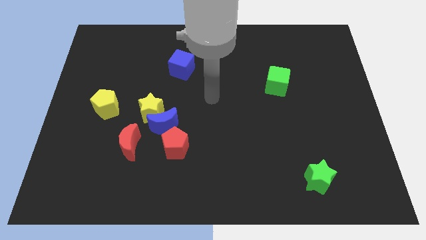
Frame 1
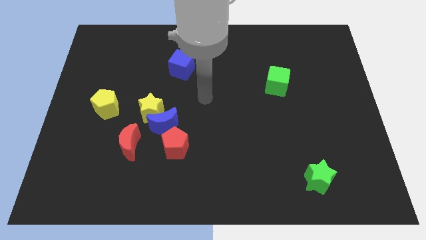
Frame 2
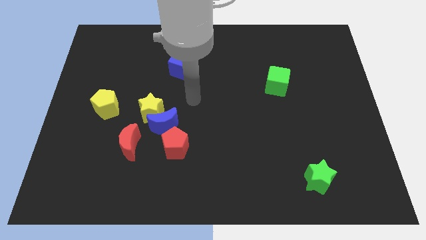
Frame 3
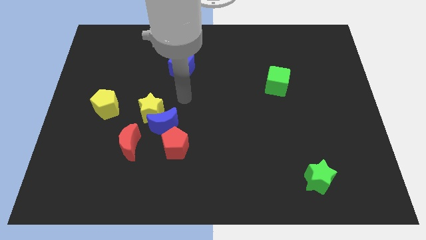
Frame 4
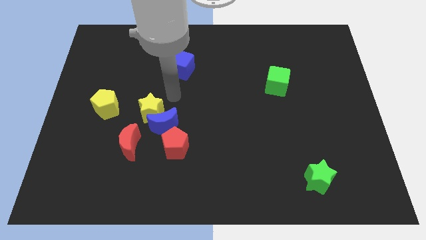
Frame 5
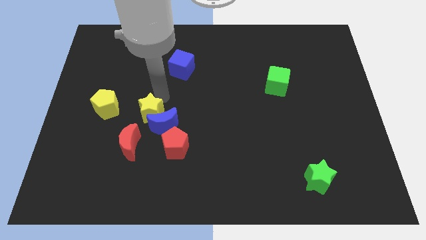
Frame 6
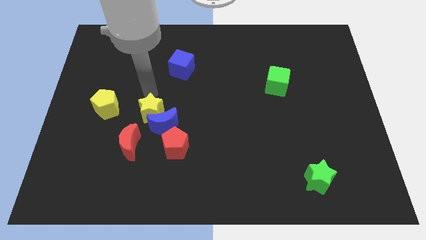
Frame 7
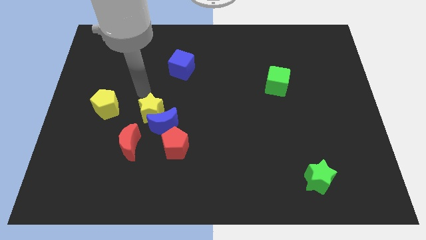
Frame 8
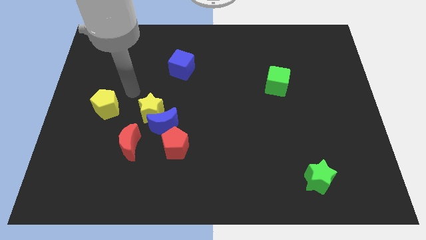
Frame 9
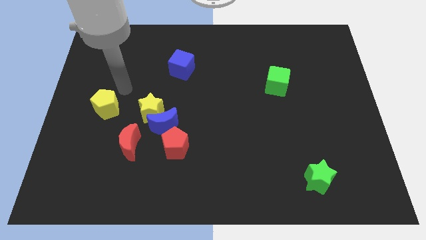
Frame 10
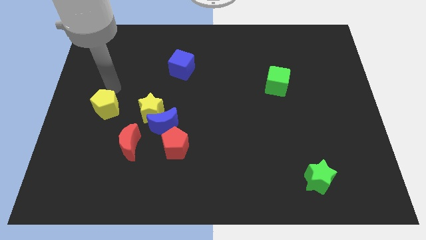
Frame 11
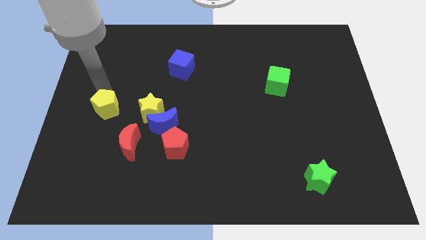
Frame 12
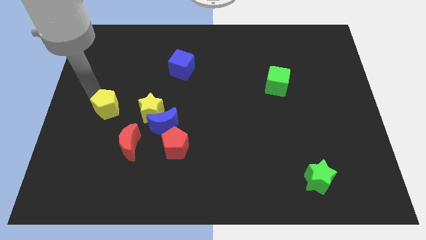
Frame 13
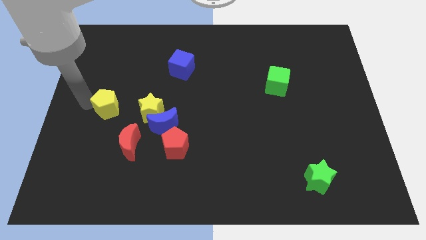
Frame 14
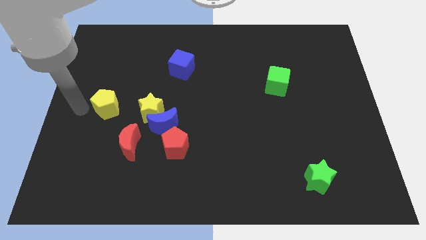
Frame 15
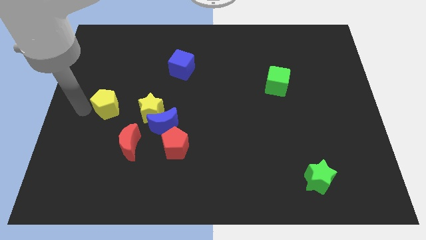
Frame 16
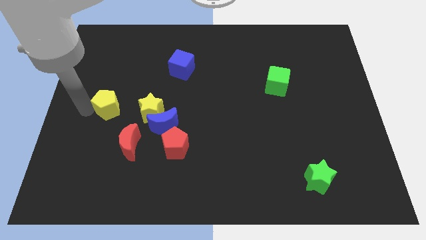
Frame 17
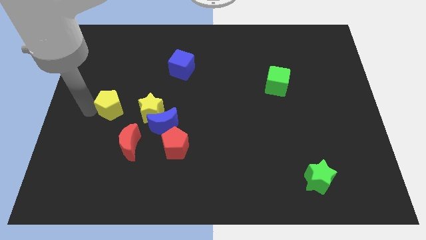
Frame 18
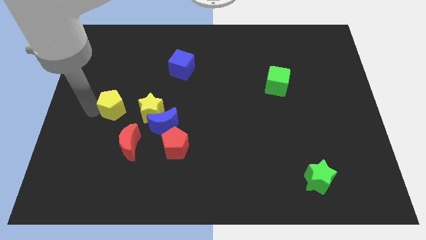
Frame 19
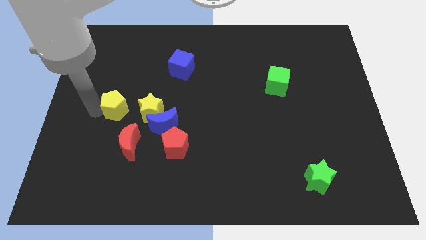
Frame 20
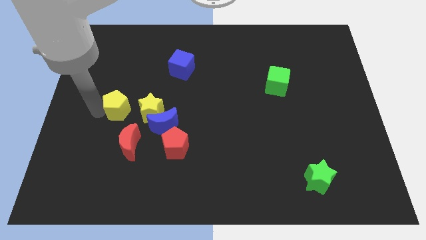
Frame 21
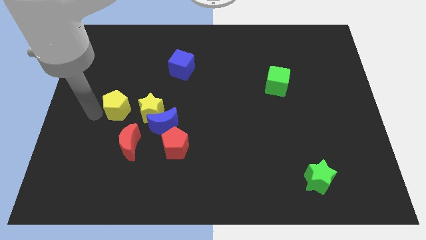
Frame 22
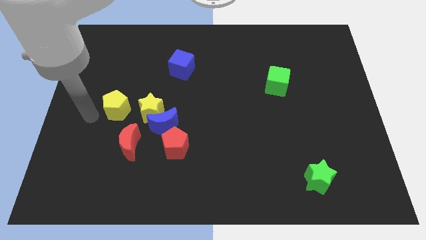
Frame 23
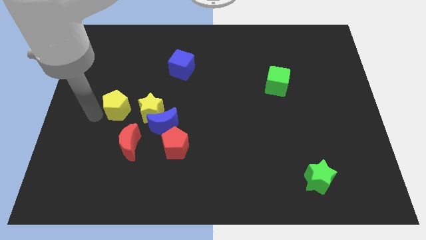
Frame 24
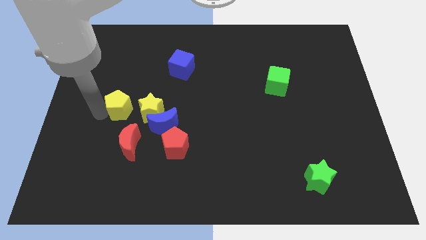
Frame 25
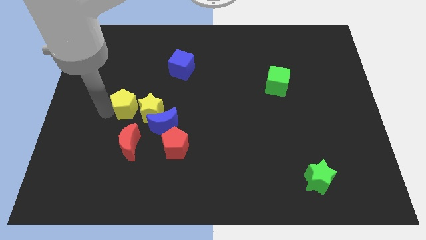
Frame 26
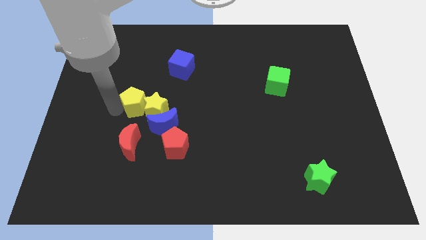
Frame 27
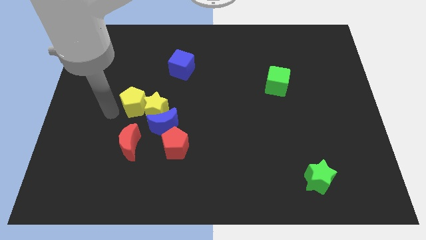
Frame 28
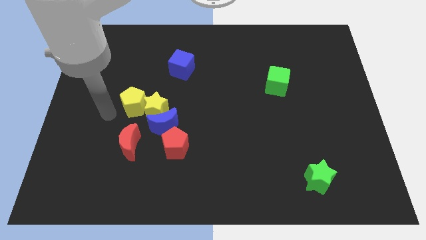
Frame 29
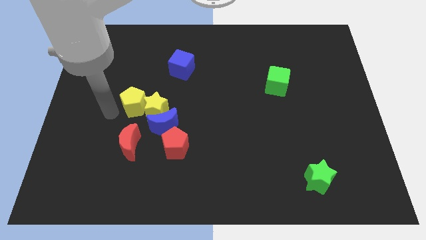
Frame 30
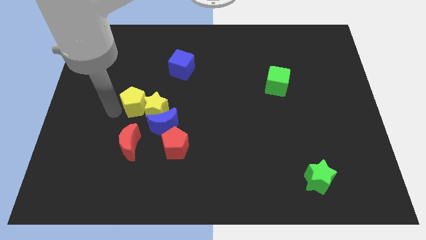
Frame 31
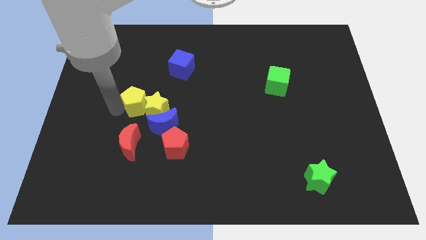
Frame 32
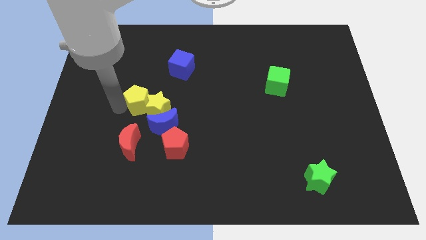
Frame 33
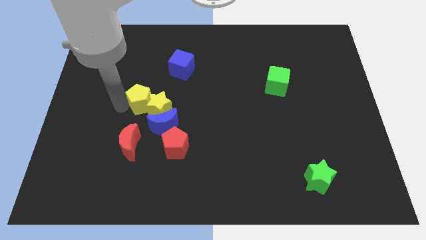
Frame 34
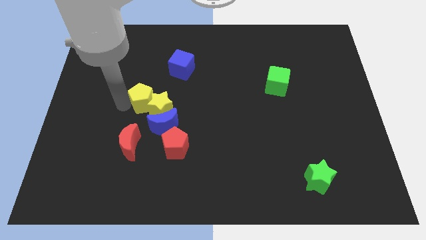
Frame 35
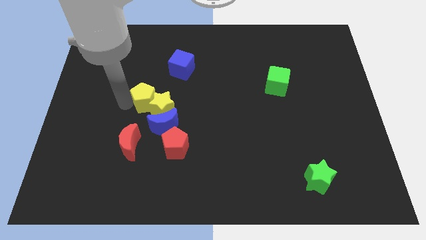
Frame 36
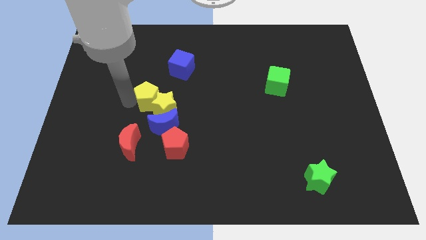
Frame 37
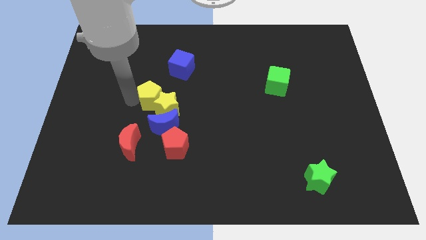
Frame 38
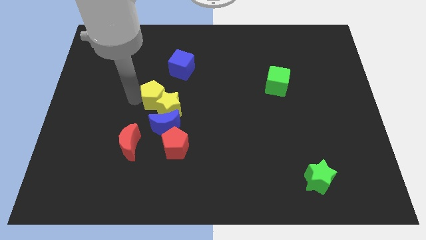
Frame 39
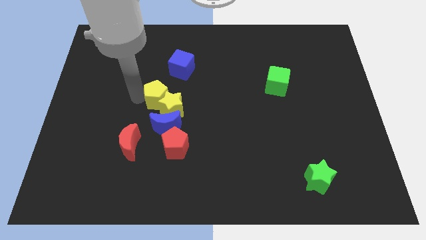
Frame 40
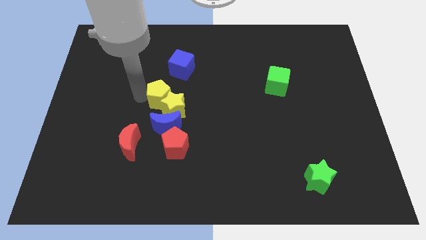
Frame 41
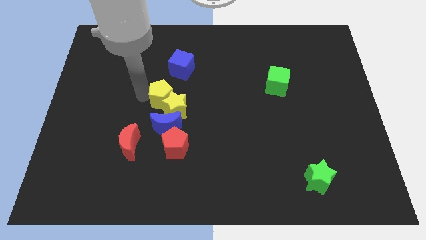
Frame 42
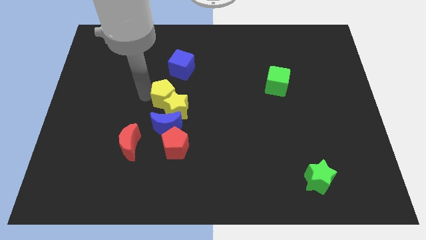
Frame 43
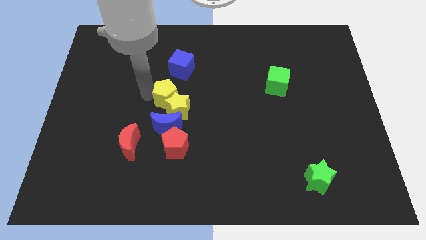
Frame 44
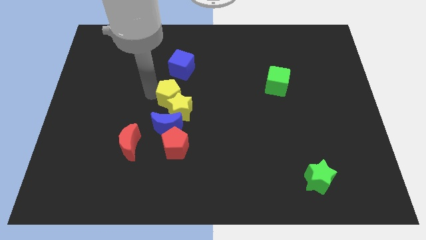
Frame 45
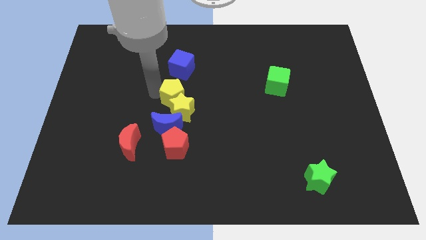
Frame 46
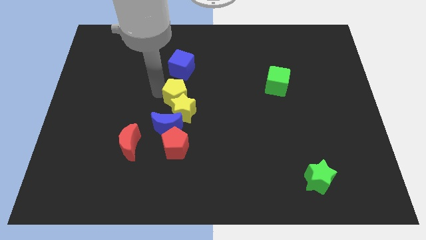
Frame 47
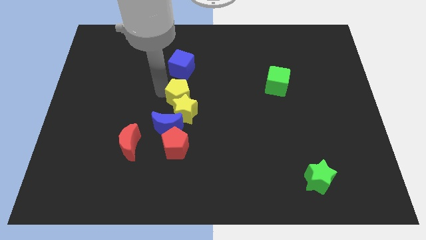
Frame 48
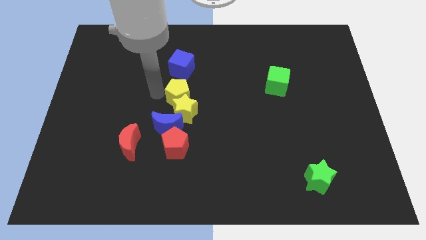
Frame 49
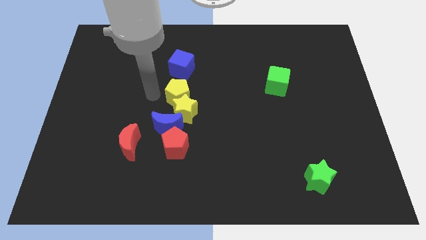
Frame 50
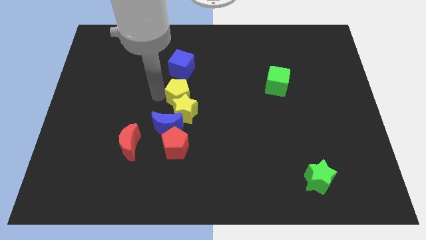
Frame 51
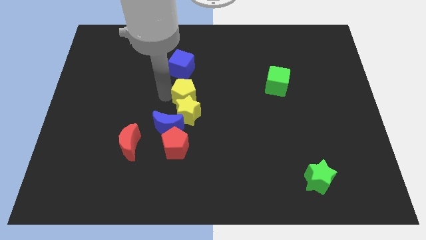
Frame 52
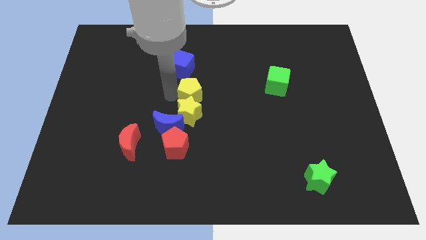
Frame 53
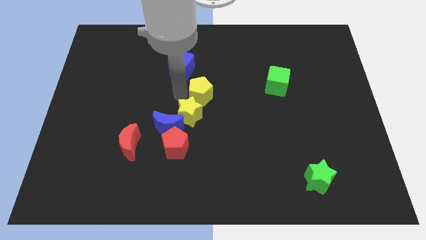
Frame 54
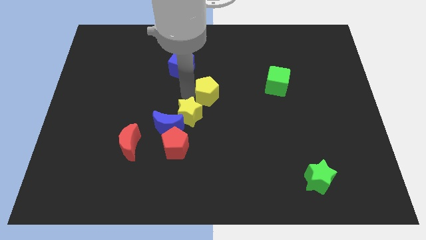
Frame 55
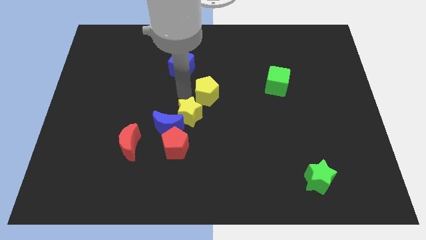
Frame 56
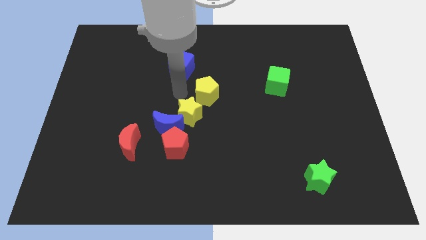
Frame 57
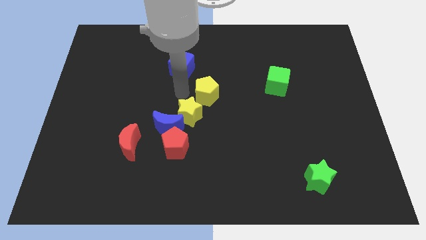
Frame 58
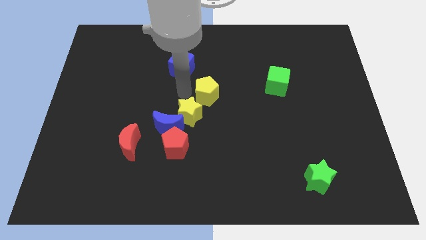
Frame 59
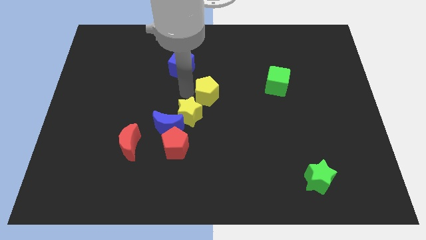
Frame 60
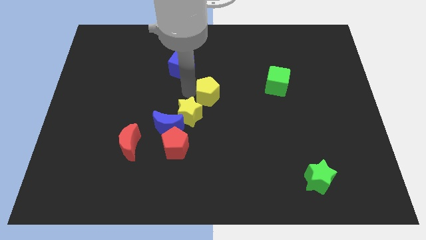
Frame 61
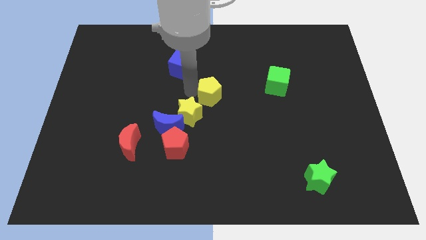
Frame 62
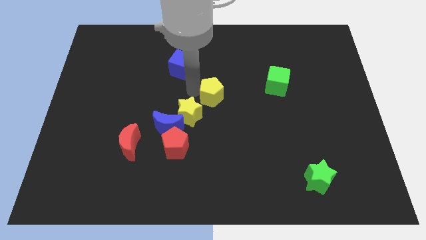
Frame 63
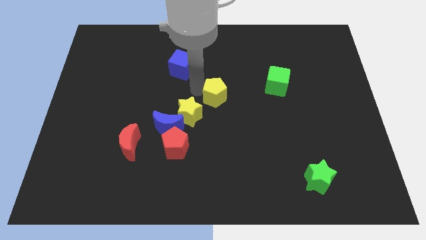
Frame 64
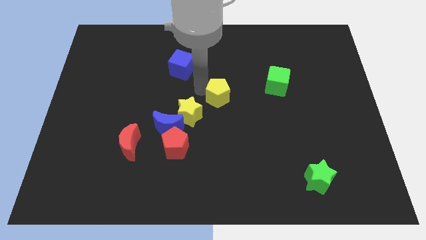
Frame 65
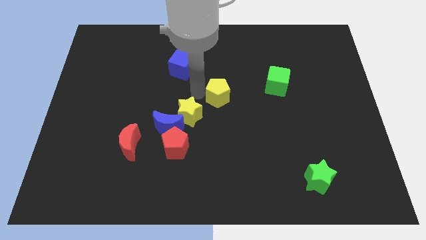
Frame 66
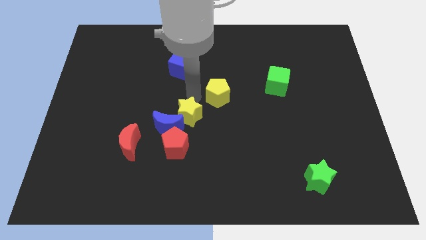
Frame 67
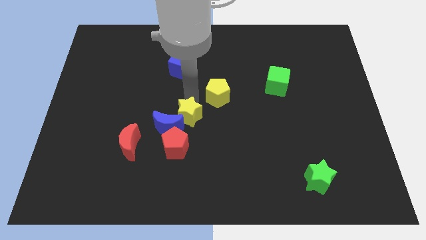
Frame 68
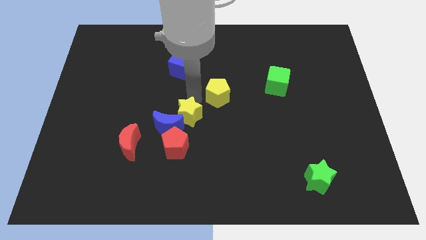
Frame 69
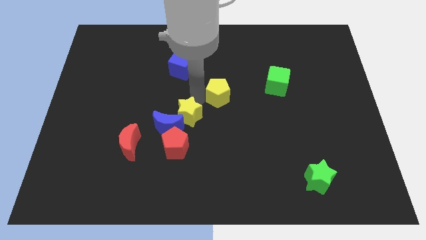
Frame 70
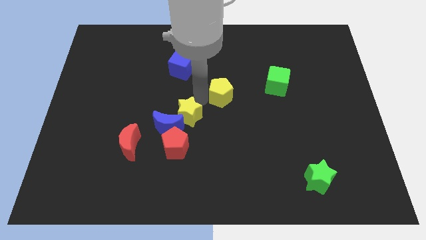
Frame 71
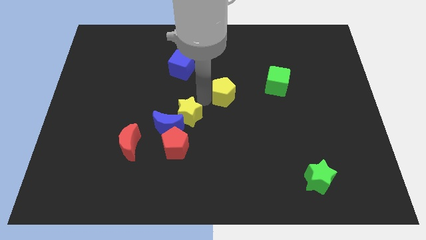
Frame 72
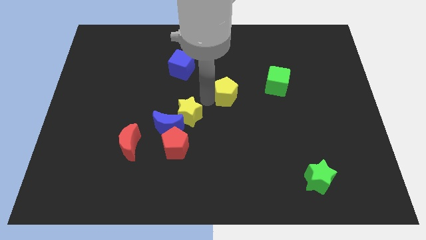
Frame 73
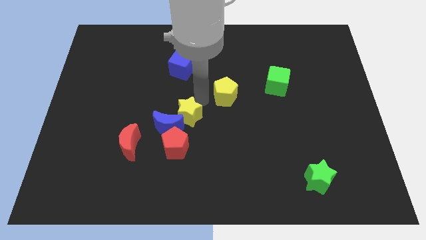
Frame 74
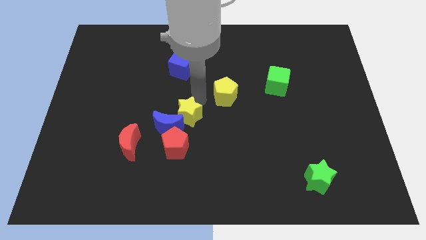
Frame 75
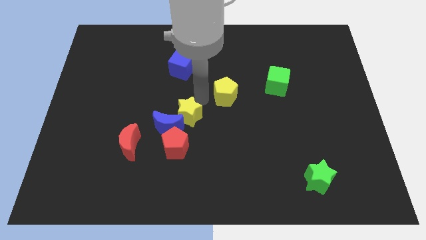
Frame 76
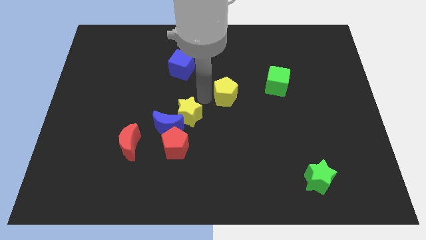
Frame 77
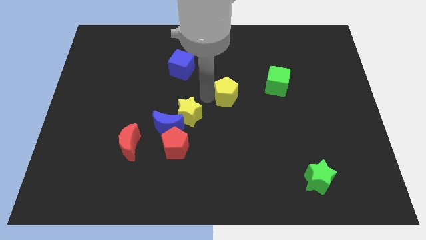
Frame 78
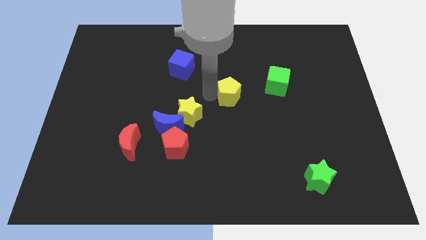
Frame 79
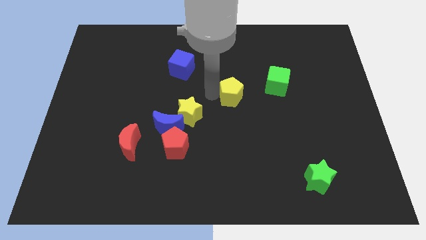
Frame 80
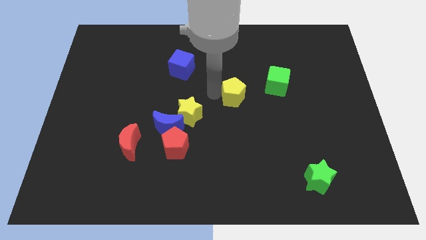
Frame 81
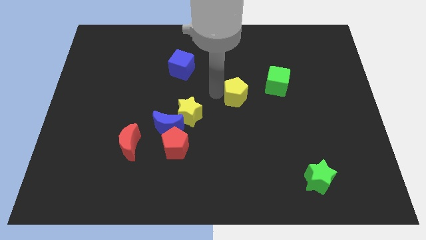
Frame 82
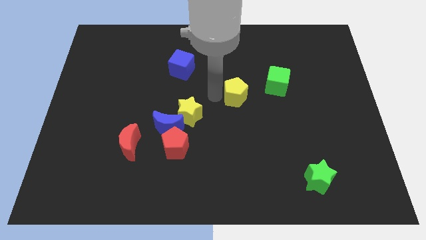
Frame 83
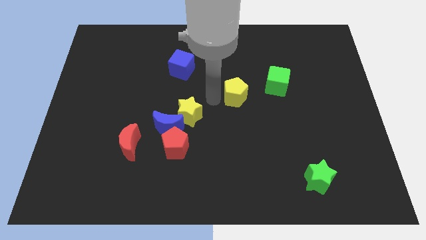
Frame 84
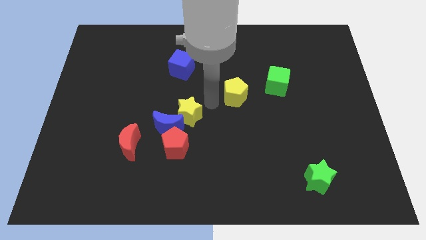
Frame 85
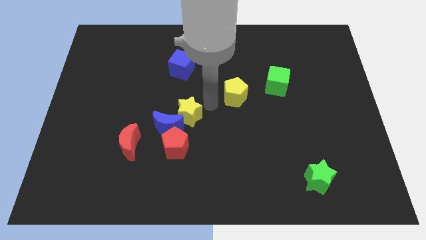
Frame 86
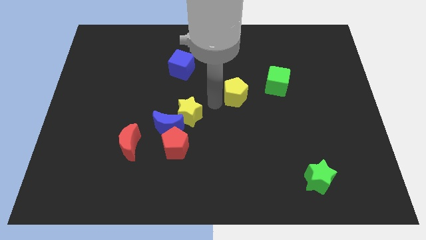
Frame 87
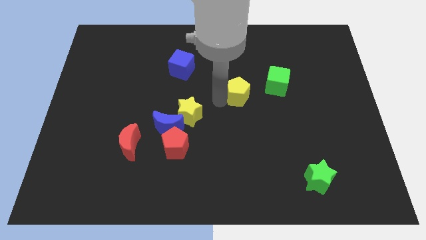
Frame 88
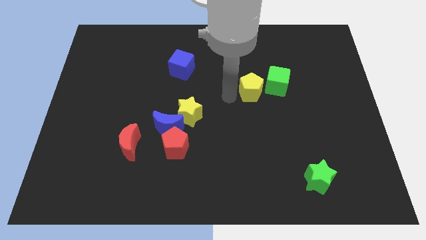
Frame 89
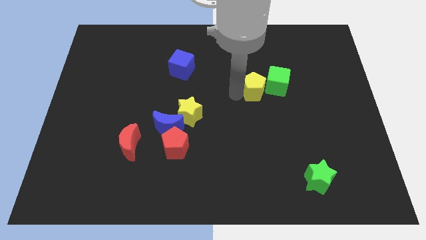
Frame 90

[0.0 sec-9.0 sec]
move the yellow pentagon close to the green cube
